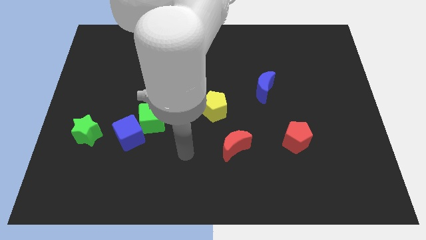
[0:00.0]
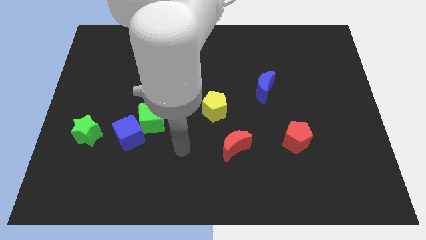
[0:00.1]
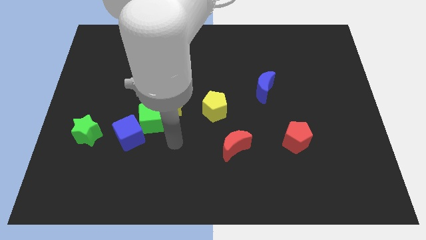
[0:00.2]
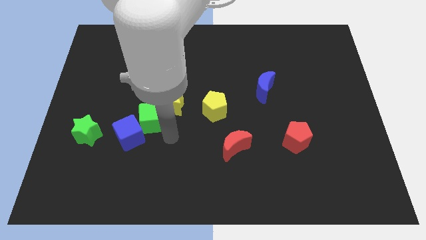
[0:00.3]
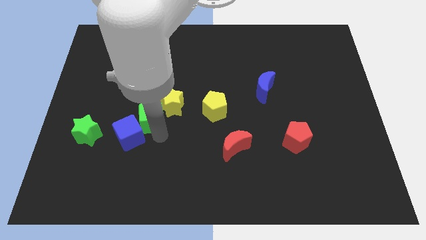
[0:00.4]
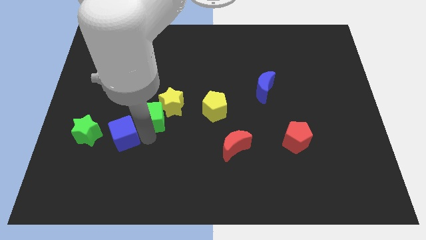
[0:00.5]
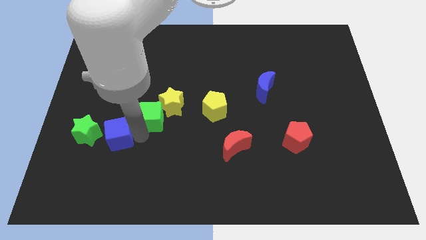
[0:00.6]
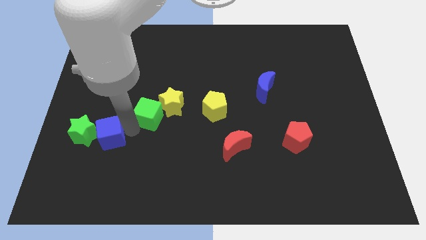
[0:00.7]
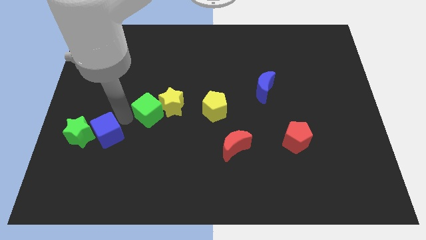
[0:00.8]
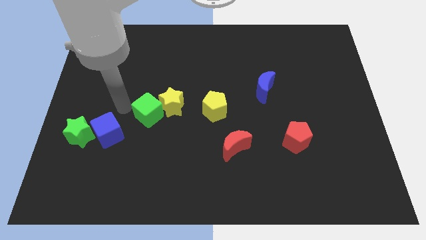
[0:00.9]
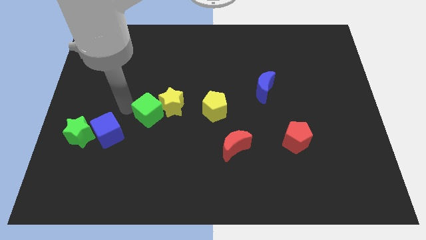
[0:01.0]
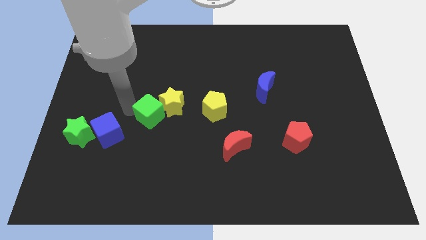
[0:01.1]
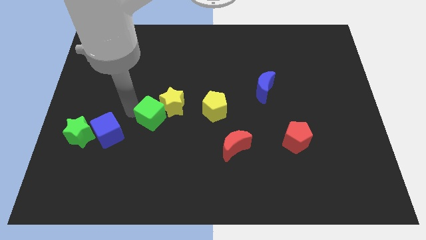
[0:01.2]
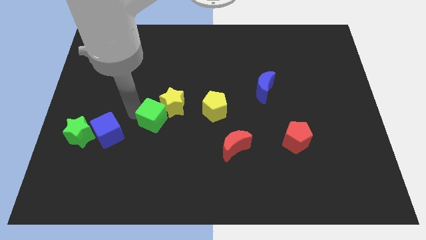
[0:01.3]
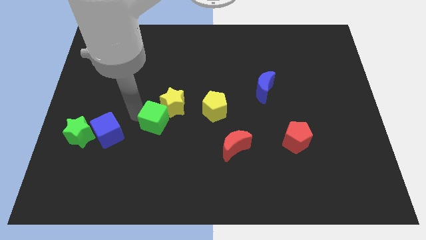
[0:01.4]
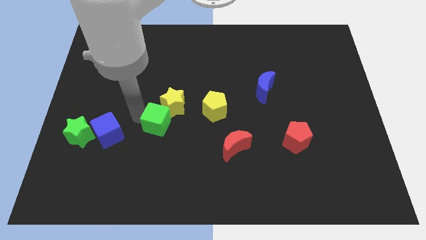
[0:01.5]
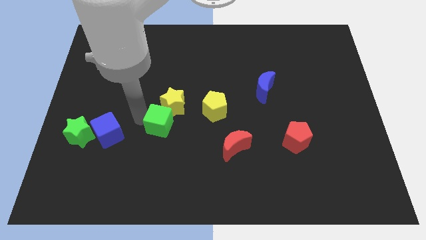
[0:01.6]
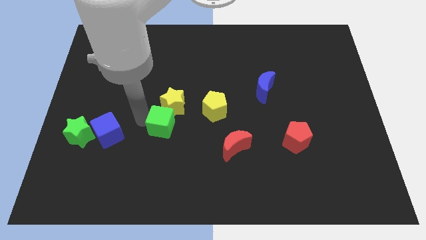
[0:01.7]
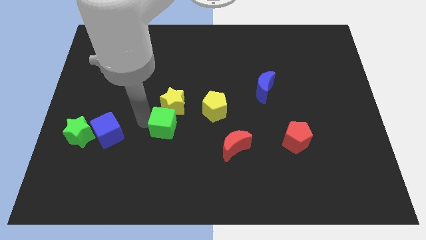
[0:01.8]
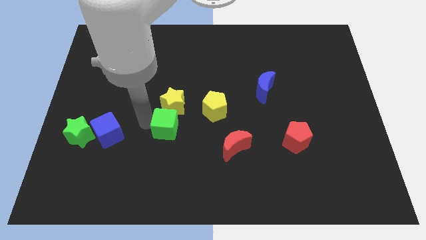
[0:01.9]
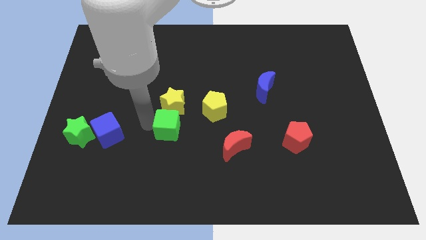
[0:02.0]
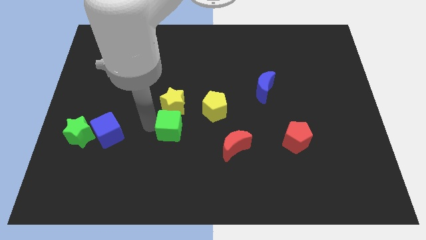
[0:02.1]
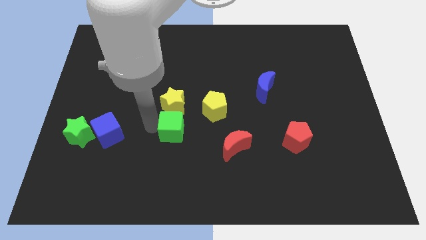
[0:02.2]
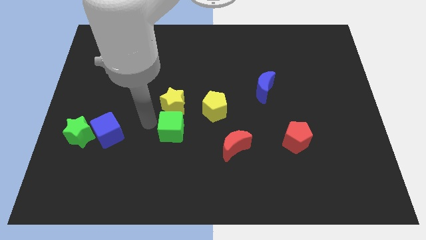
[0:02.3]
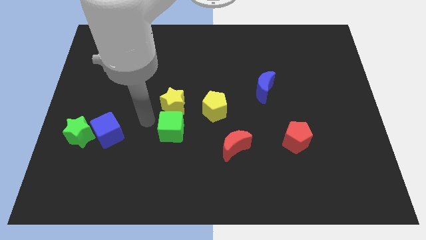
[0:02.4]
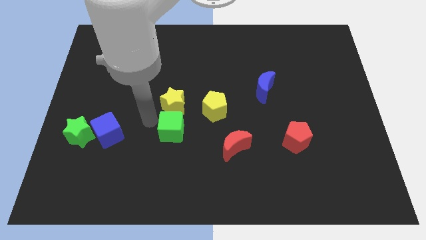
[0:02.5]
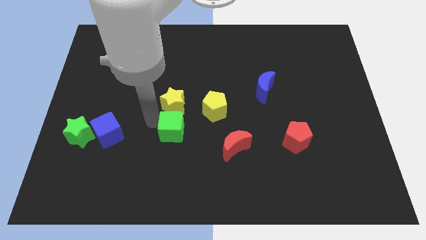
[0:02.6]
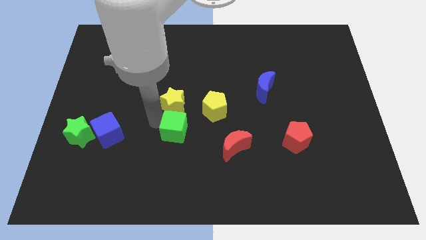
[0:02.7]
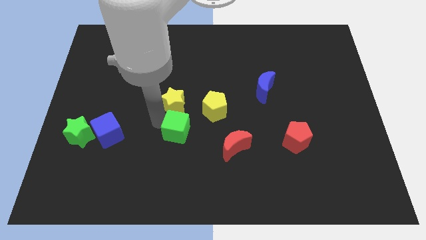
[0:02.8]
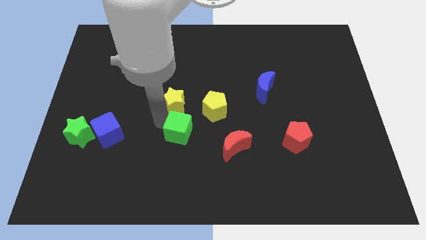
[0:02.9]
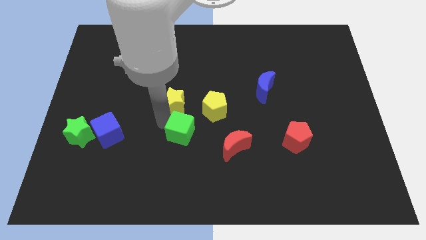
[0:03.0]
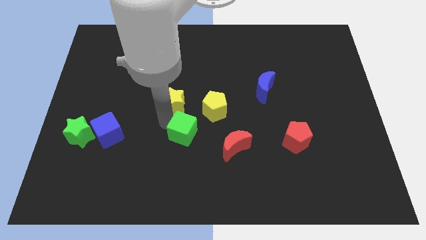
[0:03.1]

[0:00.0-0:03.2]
separate the green cube from the yellow star and blue cube

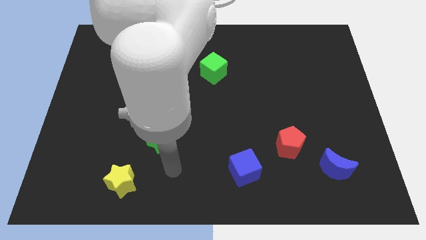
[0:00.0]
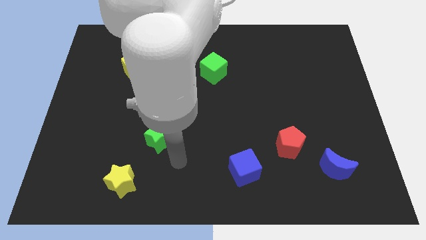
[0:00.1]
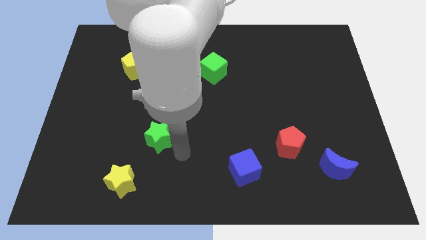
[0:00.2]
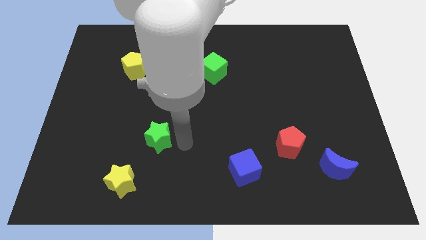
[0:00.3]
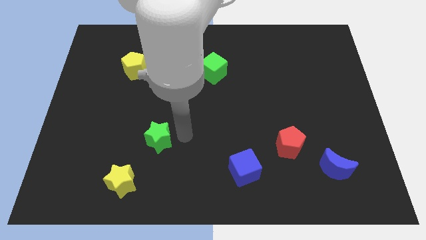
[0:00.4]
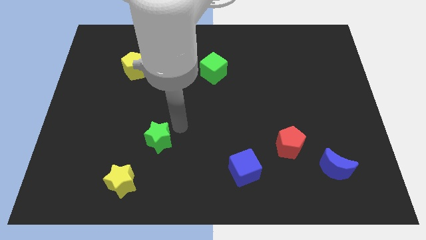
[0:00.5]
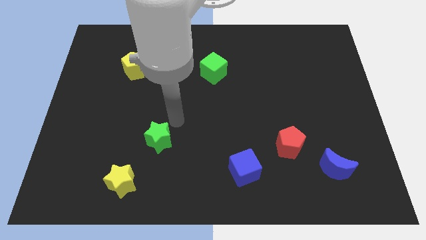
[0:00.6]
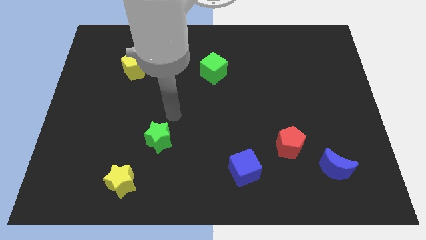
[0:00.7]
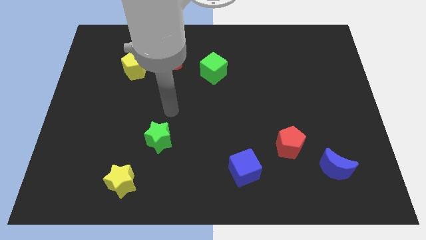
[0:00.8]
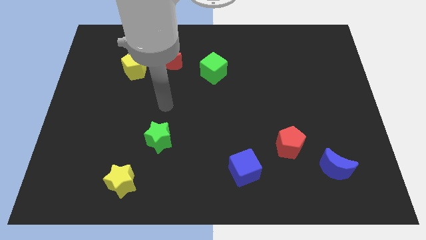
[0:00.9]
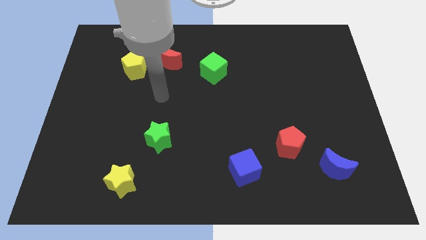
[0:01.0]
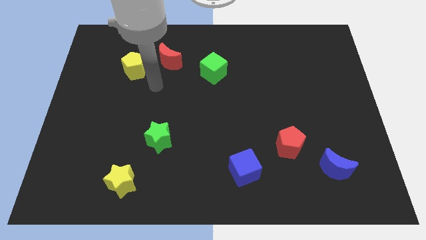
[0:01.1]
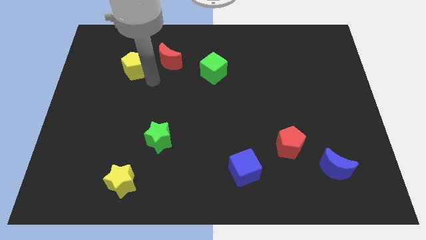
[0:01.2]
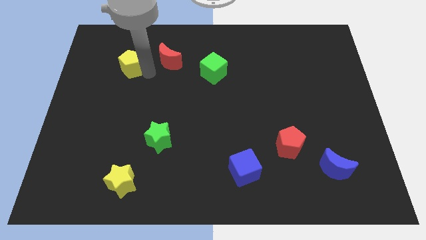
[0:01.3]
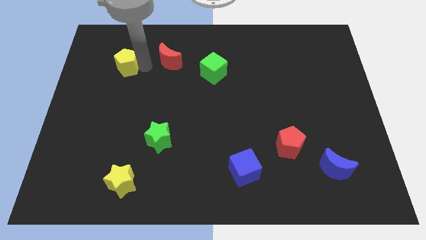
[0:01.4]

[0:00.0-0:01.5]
pull the red moon apart from the yellow pentagon

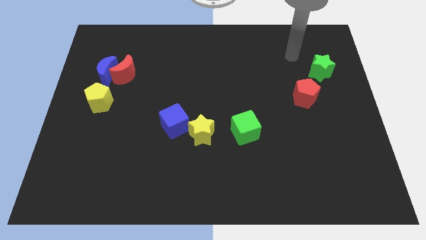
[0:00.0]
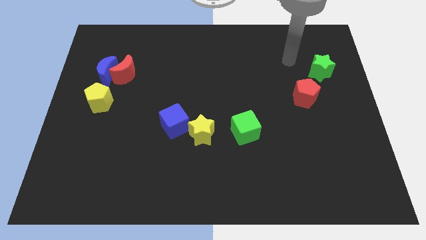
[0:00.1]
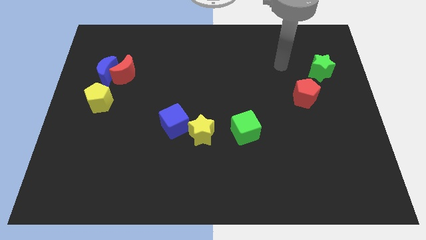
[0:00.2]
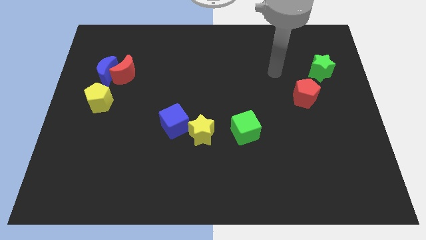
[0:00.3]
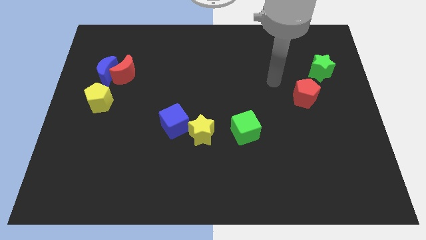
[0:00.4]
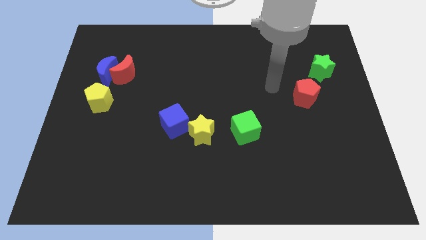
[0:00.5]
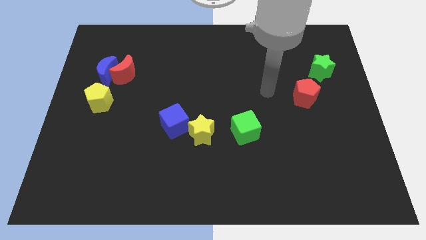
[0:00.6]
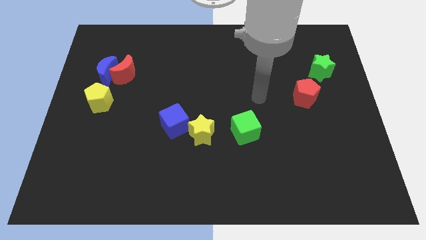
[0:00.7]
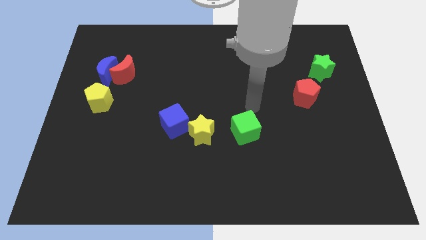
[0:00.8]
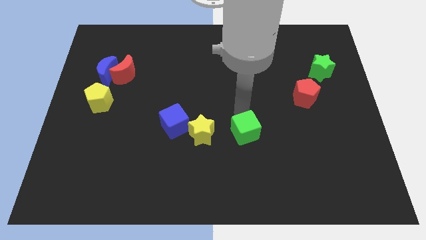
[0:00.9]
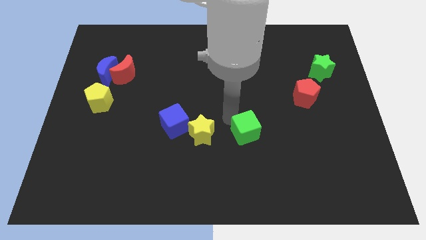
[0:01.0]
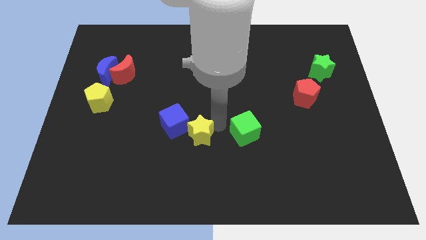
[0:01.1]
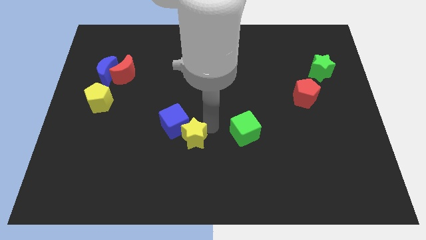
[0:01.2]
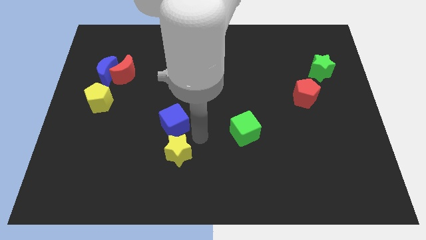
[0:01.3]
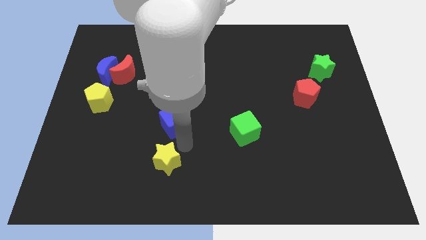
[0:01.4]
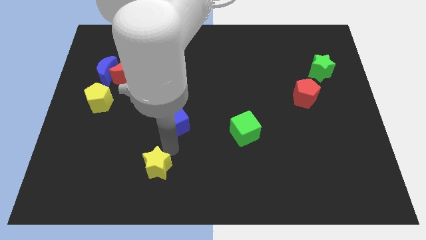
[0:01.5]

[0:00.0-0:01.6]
pull the blue cube apart from the yellow star

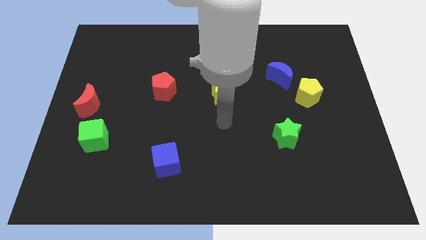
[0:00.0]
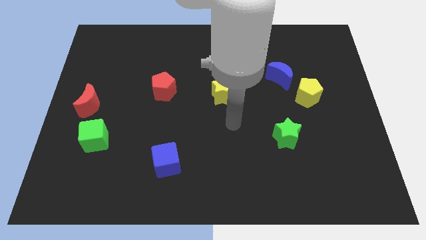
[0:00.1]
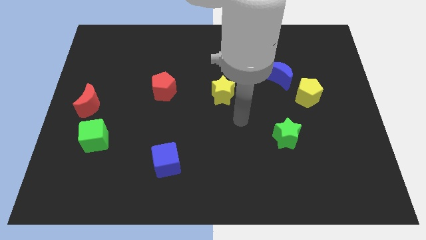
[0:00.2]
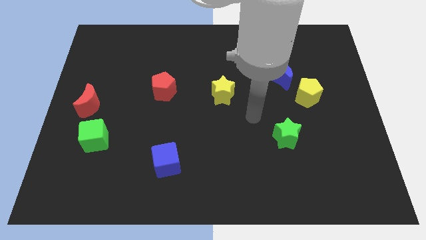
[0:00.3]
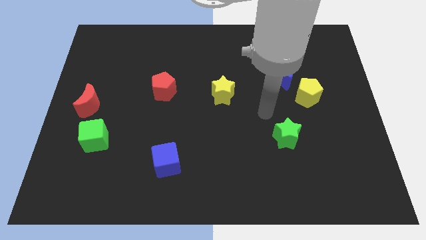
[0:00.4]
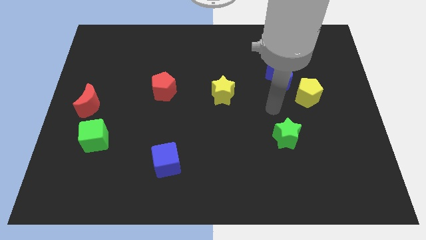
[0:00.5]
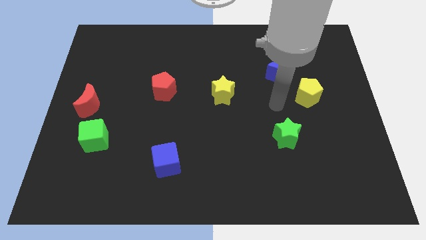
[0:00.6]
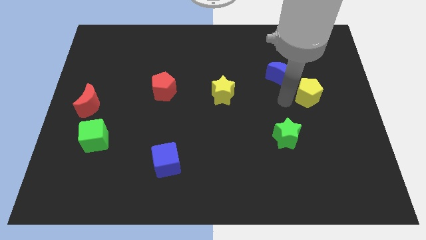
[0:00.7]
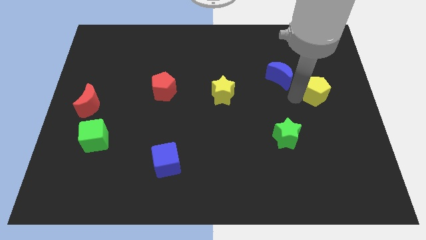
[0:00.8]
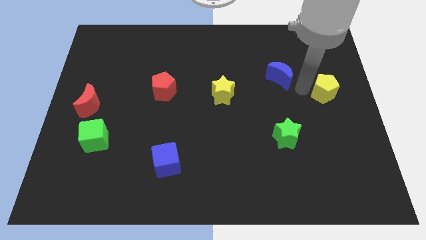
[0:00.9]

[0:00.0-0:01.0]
separate the blue moon from the yellow pentagon

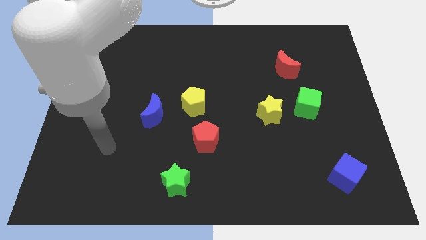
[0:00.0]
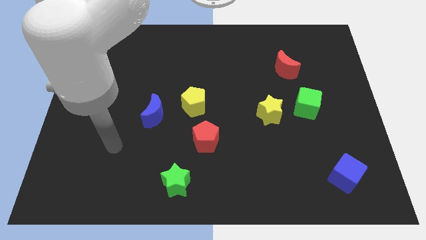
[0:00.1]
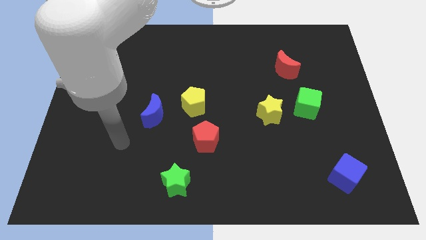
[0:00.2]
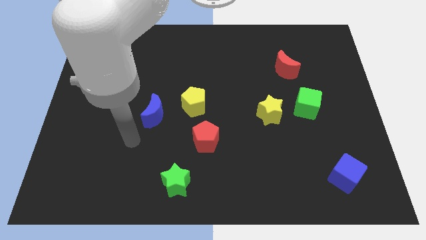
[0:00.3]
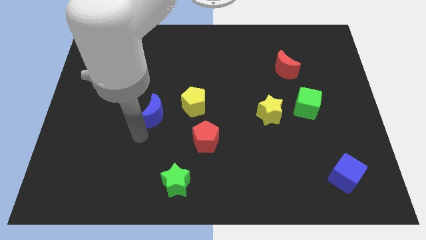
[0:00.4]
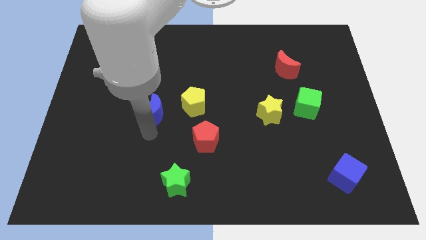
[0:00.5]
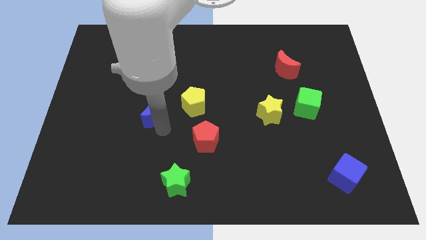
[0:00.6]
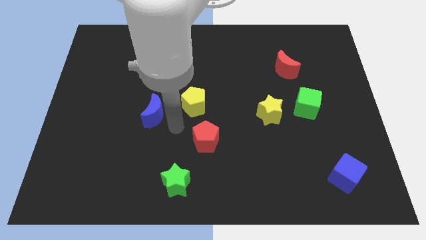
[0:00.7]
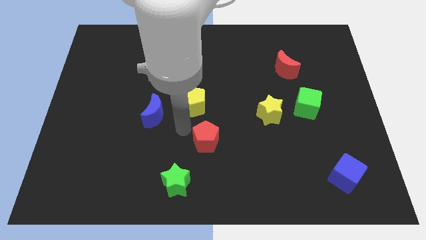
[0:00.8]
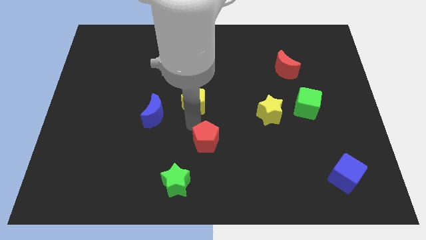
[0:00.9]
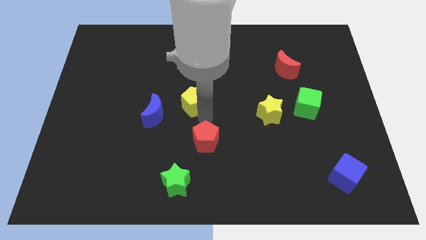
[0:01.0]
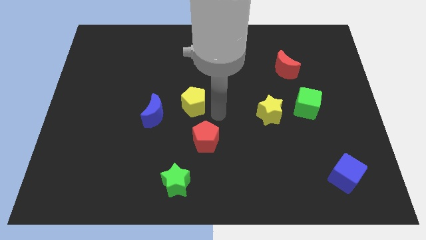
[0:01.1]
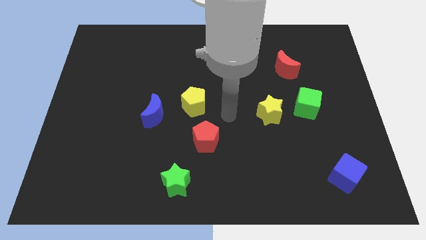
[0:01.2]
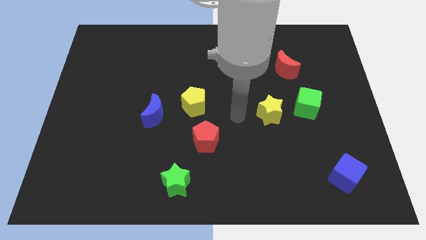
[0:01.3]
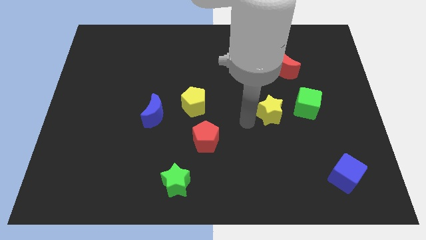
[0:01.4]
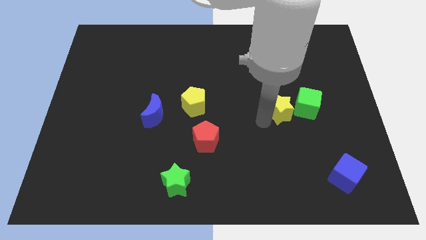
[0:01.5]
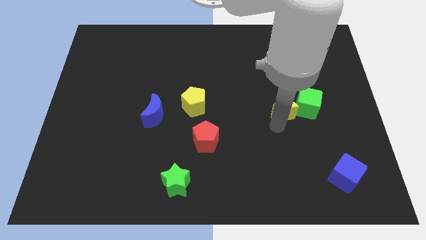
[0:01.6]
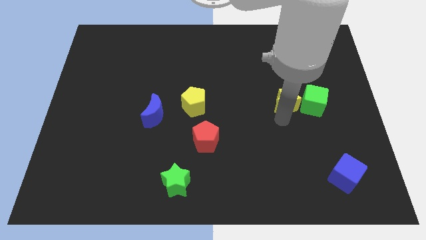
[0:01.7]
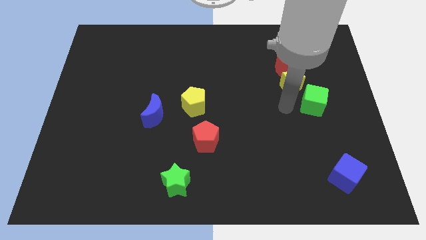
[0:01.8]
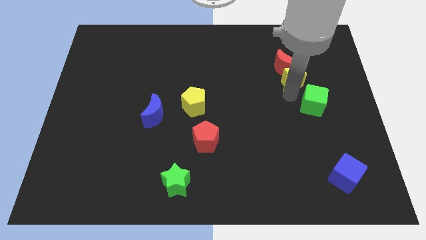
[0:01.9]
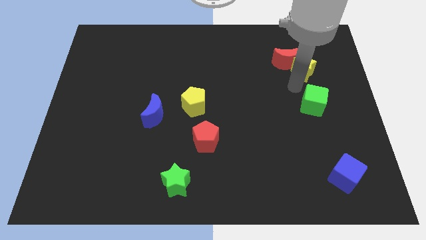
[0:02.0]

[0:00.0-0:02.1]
pull the green cube apart from the yellow star
